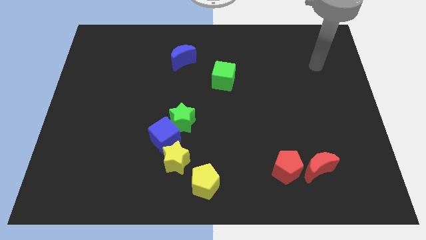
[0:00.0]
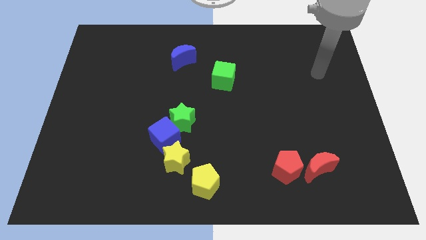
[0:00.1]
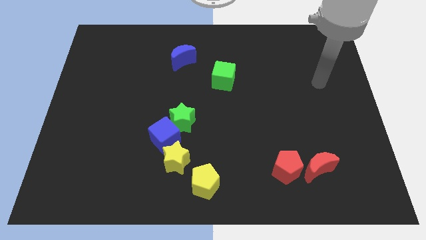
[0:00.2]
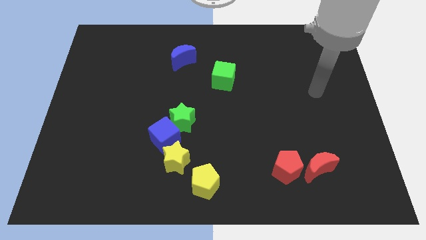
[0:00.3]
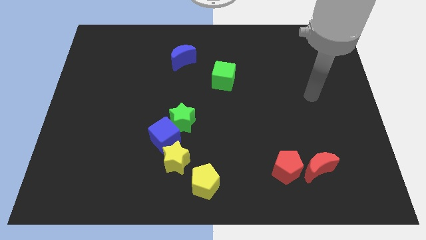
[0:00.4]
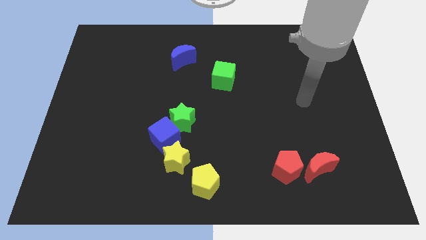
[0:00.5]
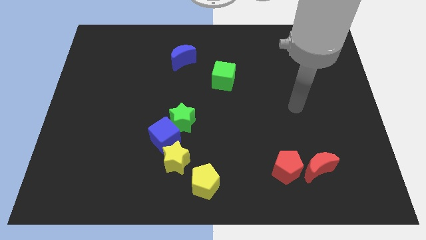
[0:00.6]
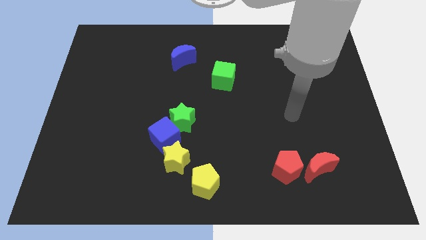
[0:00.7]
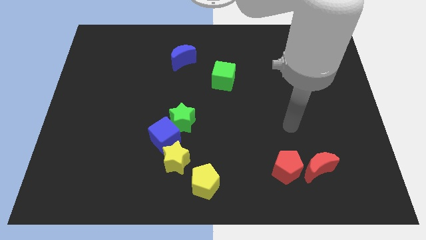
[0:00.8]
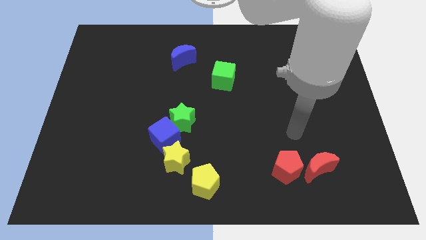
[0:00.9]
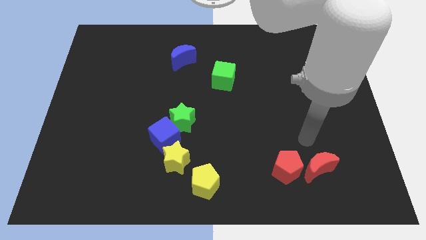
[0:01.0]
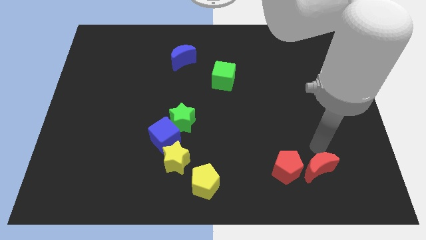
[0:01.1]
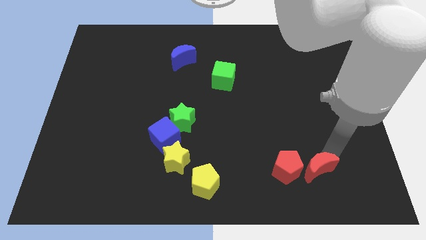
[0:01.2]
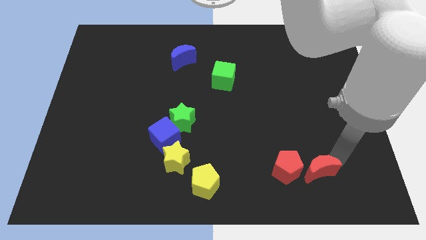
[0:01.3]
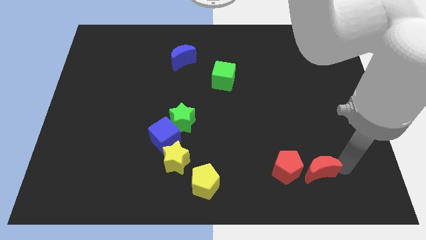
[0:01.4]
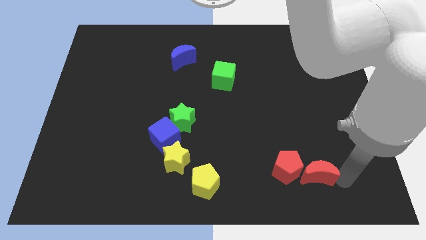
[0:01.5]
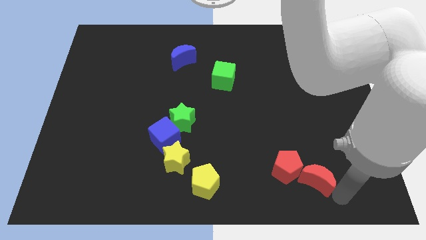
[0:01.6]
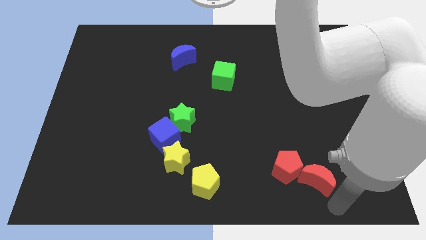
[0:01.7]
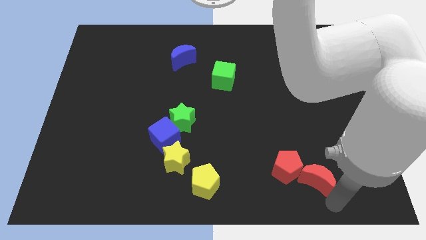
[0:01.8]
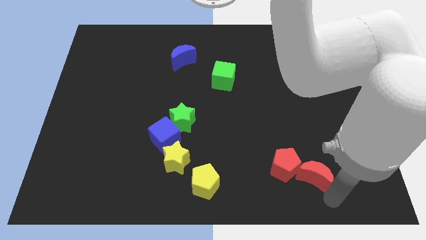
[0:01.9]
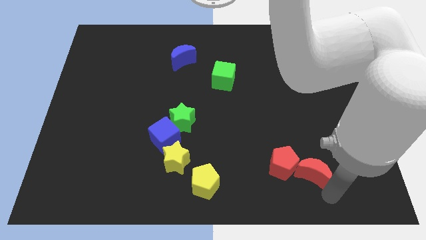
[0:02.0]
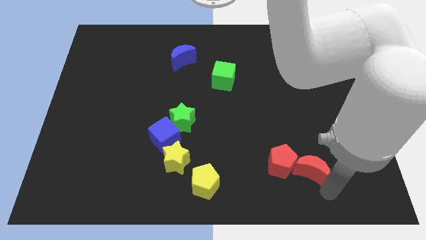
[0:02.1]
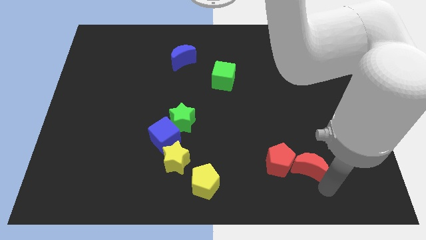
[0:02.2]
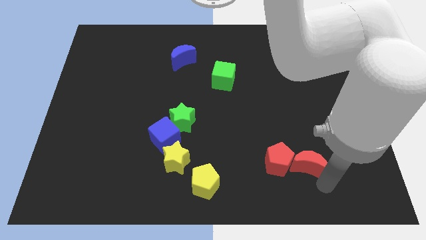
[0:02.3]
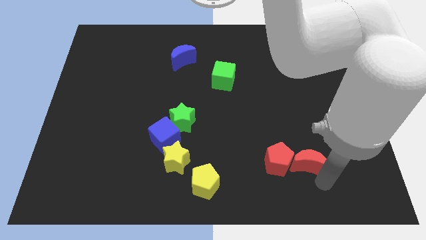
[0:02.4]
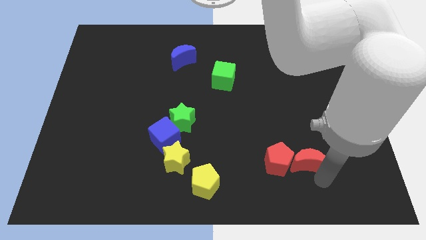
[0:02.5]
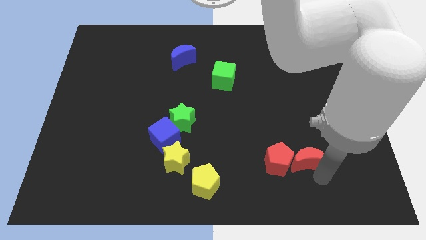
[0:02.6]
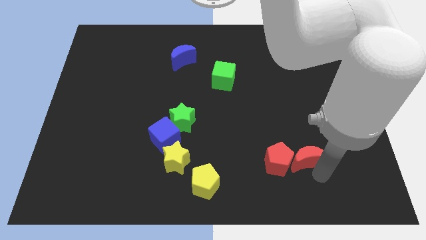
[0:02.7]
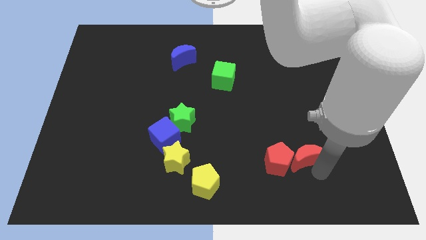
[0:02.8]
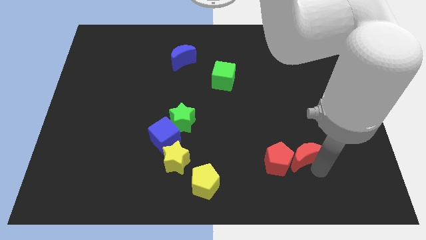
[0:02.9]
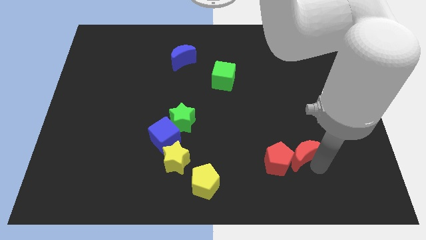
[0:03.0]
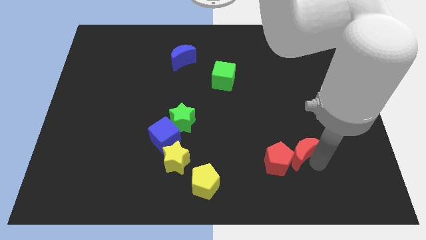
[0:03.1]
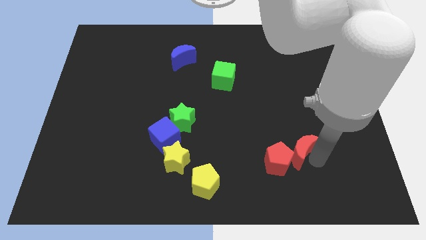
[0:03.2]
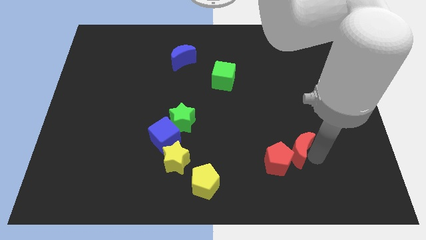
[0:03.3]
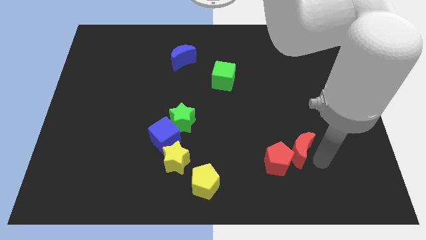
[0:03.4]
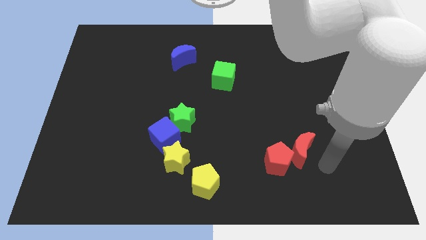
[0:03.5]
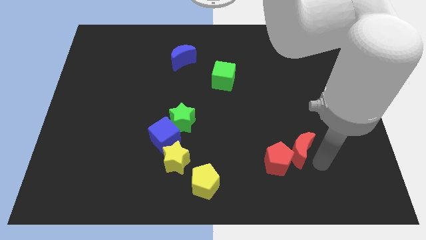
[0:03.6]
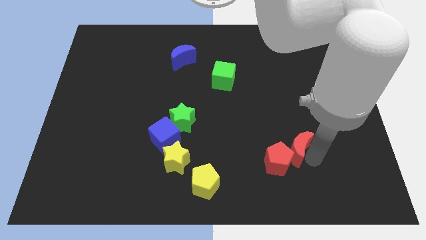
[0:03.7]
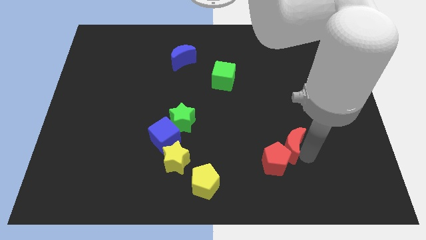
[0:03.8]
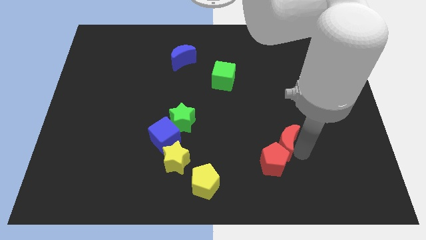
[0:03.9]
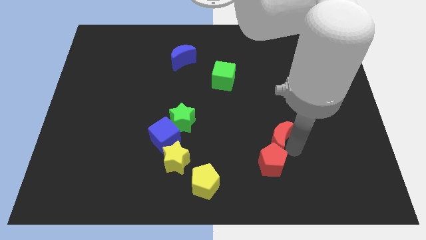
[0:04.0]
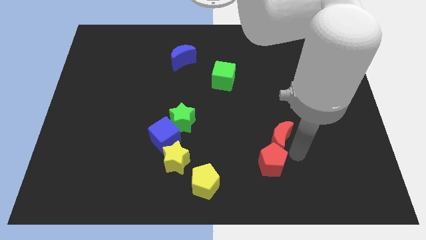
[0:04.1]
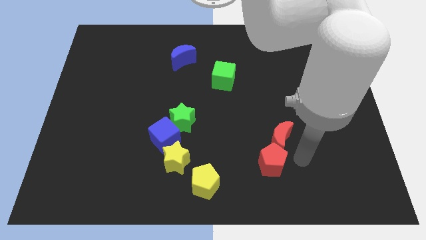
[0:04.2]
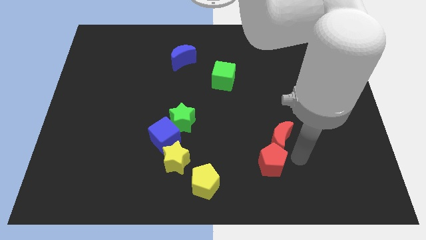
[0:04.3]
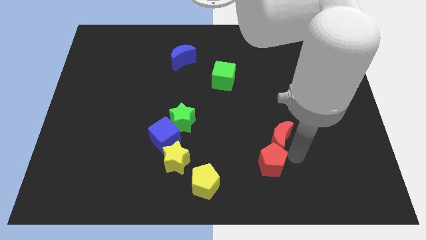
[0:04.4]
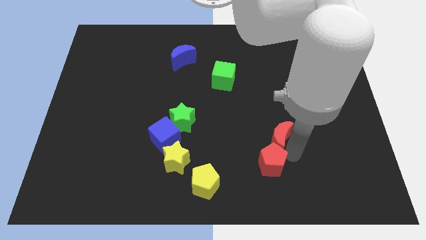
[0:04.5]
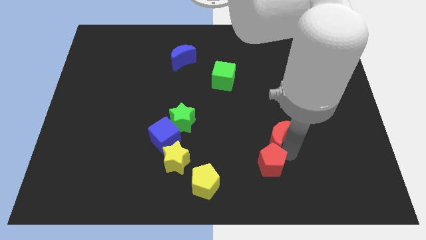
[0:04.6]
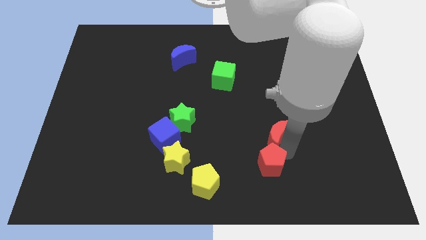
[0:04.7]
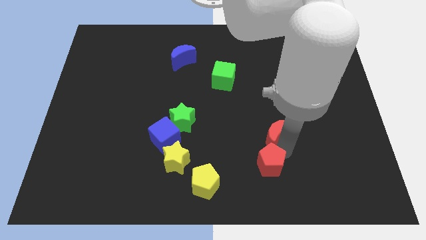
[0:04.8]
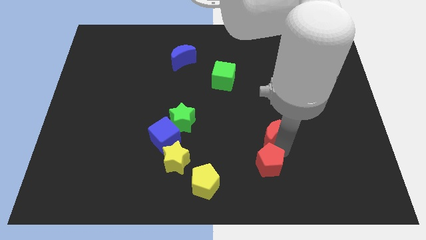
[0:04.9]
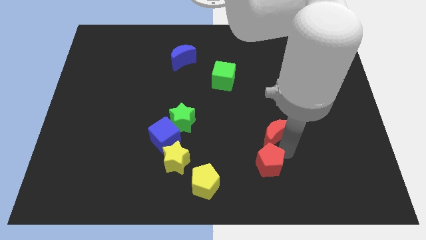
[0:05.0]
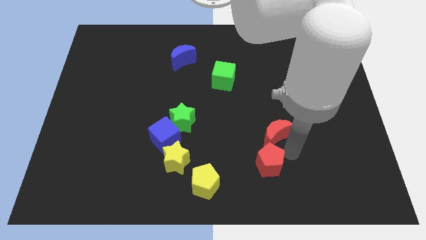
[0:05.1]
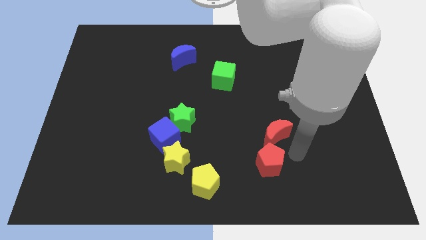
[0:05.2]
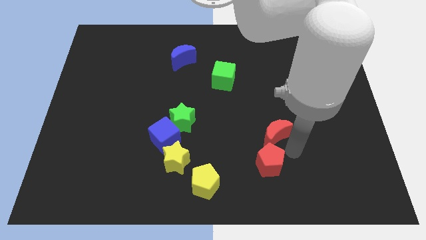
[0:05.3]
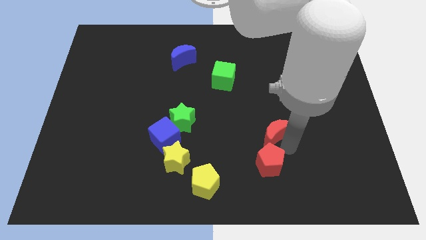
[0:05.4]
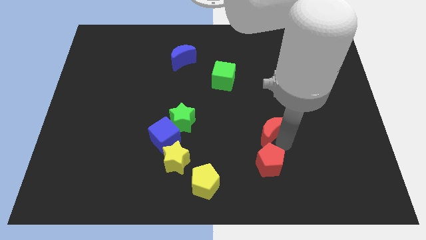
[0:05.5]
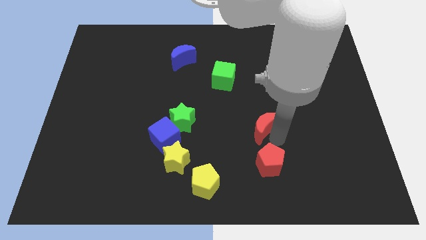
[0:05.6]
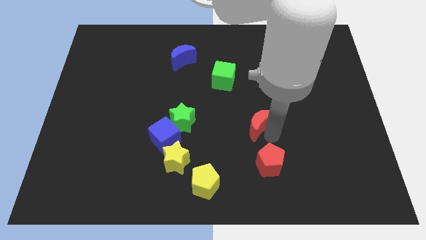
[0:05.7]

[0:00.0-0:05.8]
slide the red moon to the middle
